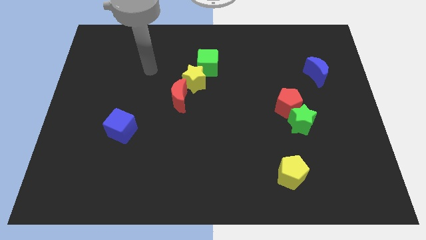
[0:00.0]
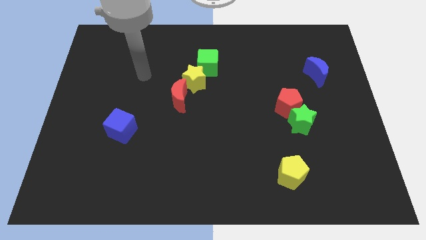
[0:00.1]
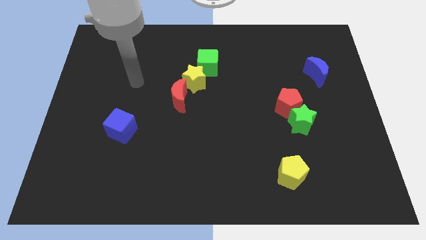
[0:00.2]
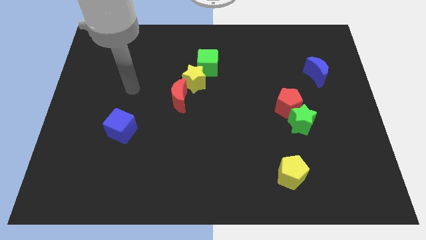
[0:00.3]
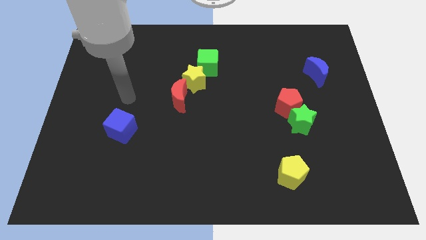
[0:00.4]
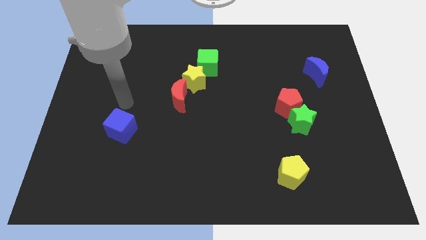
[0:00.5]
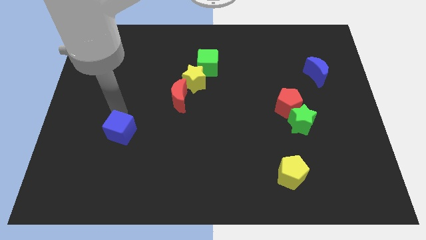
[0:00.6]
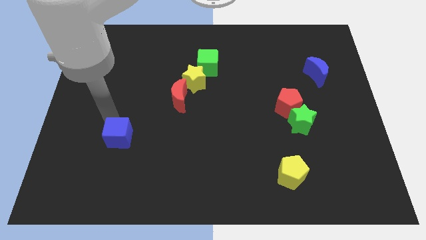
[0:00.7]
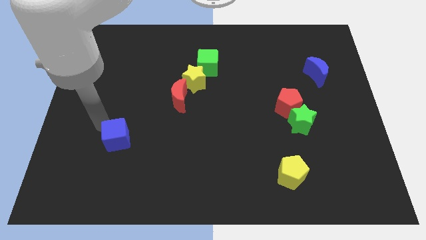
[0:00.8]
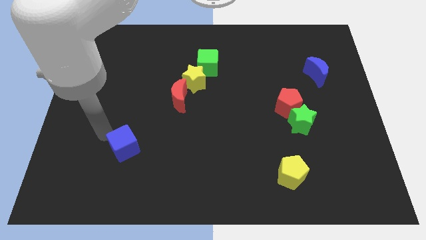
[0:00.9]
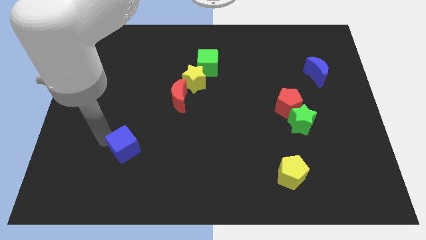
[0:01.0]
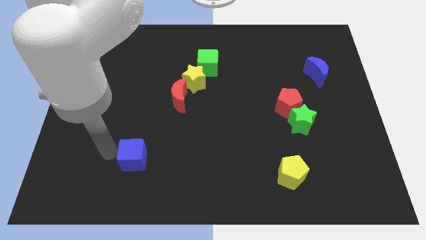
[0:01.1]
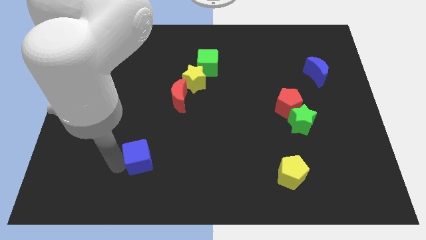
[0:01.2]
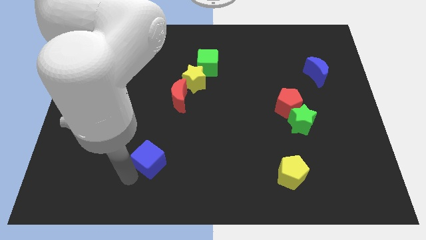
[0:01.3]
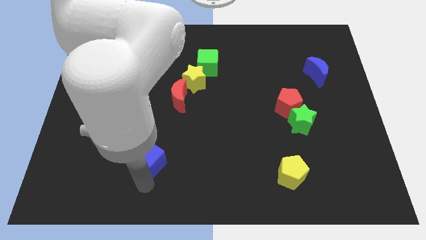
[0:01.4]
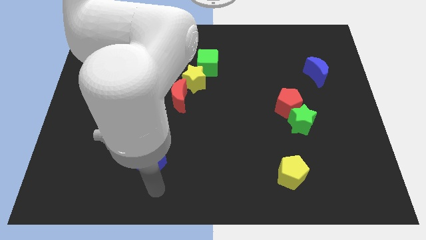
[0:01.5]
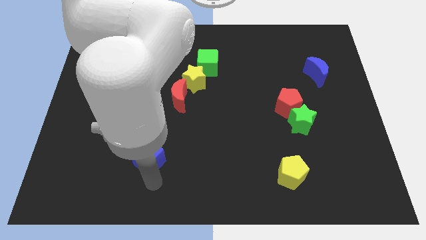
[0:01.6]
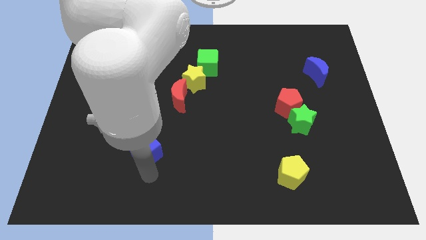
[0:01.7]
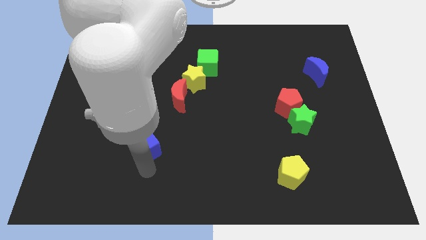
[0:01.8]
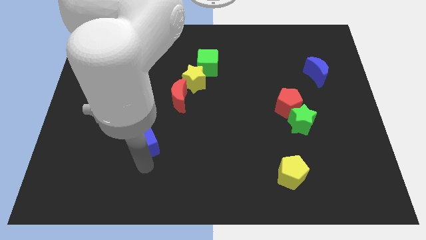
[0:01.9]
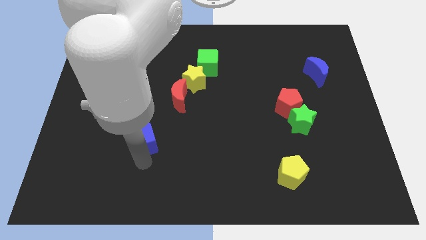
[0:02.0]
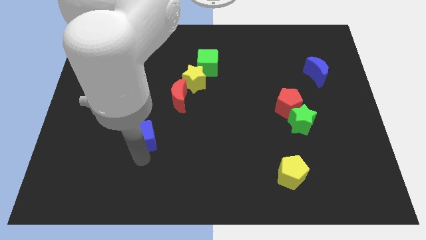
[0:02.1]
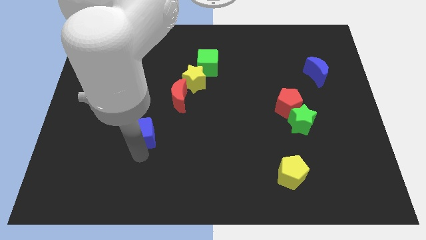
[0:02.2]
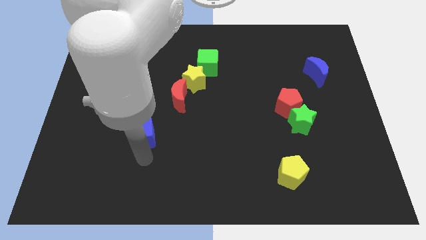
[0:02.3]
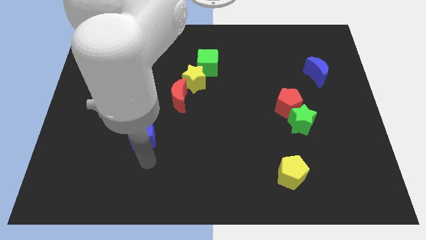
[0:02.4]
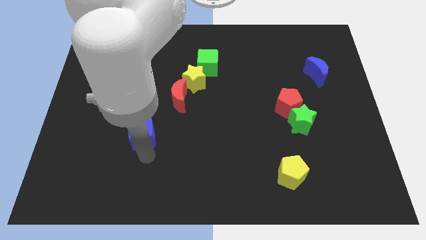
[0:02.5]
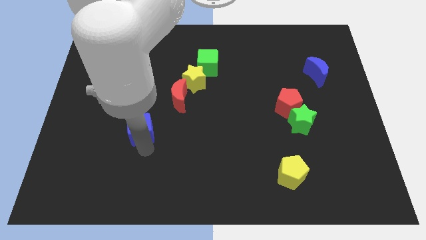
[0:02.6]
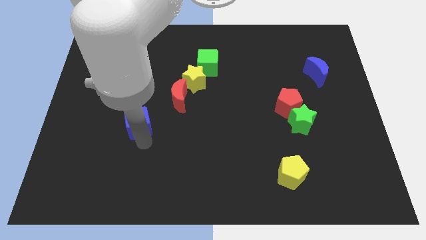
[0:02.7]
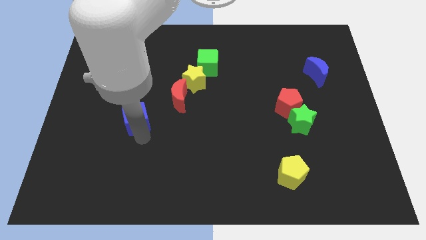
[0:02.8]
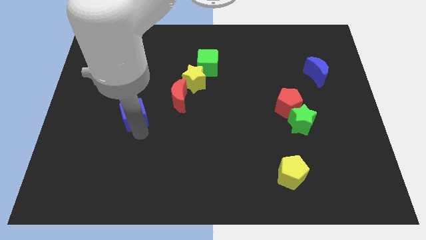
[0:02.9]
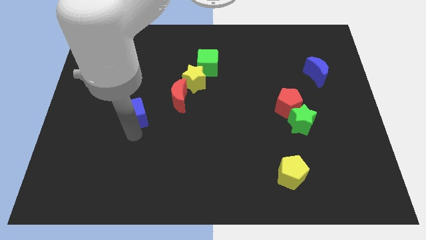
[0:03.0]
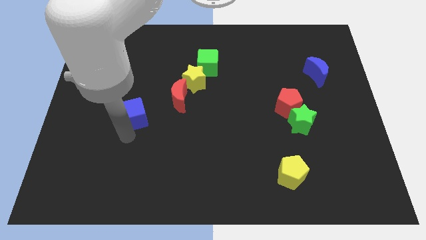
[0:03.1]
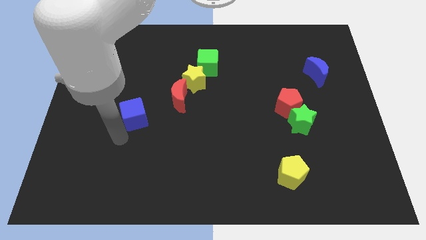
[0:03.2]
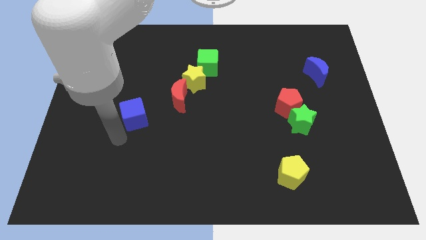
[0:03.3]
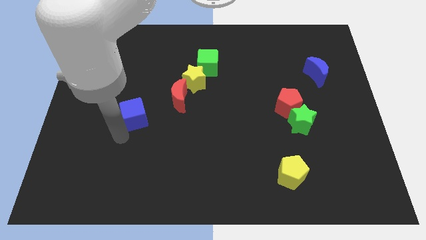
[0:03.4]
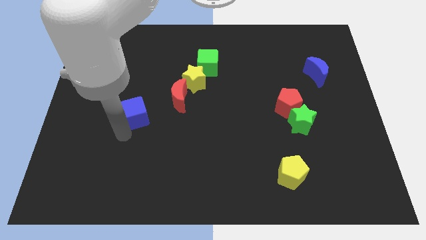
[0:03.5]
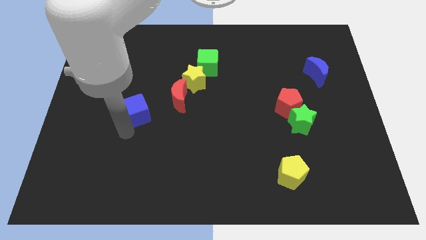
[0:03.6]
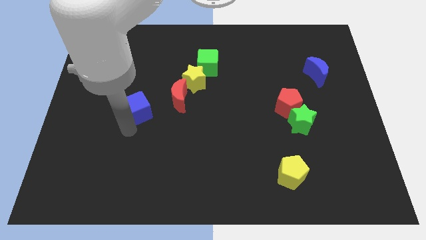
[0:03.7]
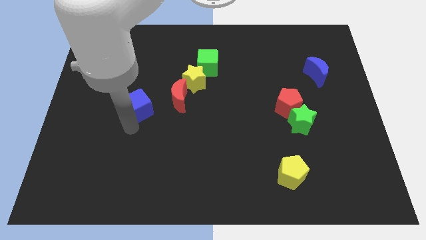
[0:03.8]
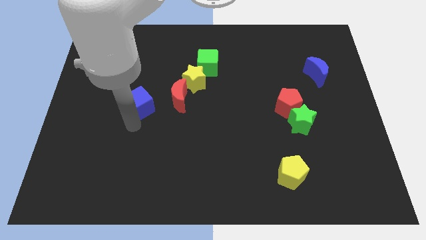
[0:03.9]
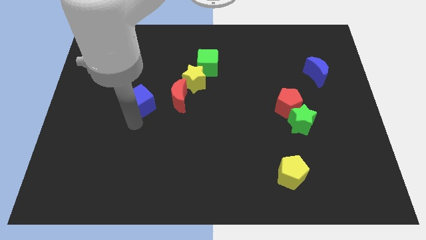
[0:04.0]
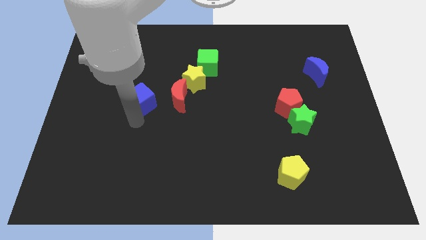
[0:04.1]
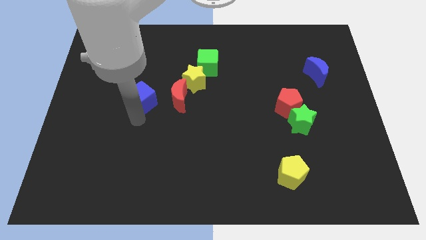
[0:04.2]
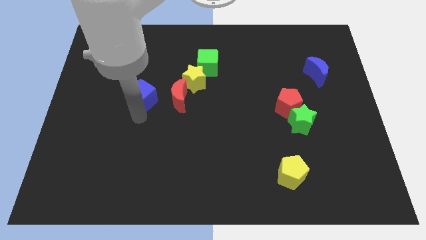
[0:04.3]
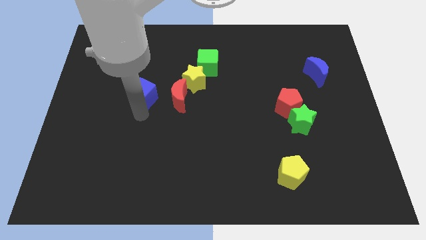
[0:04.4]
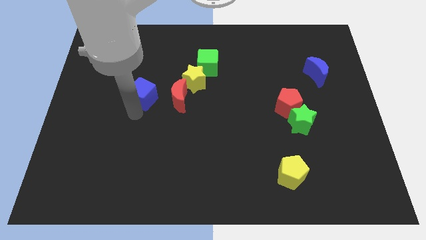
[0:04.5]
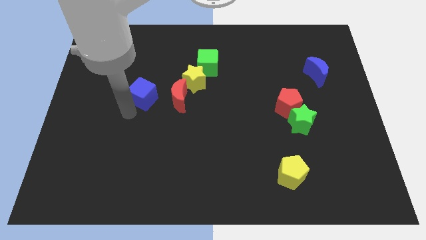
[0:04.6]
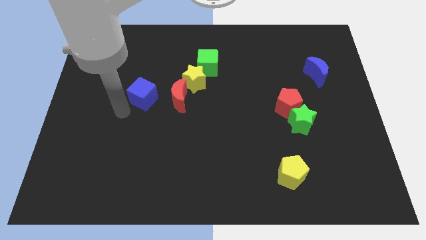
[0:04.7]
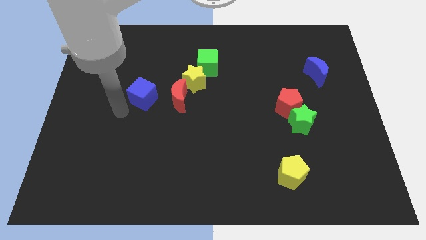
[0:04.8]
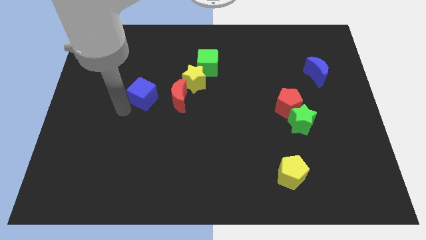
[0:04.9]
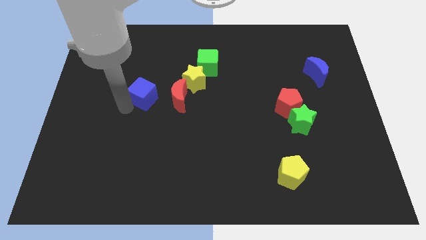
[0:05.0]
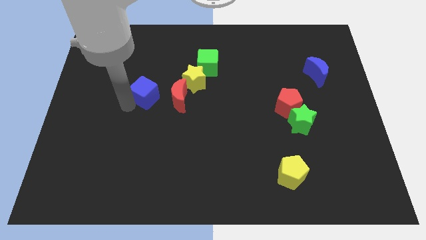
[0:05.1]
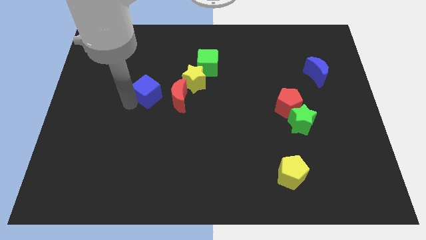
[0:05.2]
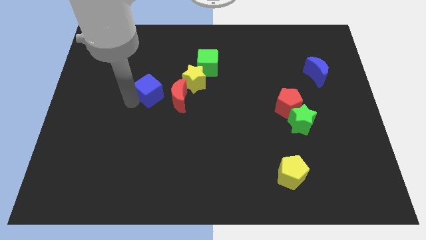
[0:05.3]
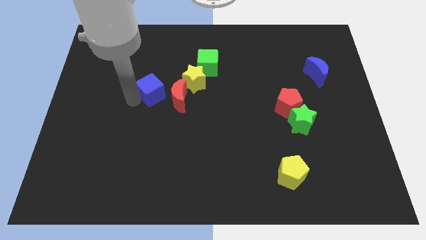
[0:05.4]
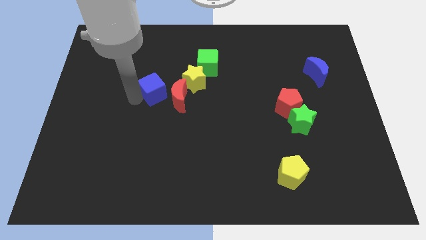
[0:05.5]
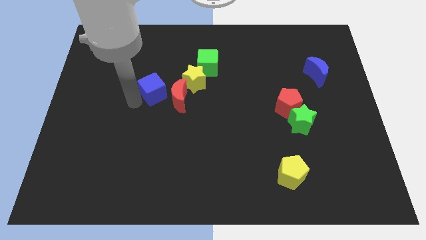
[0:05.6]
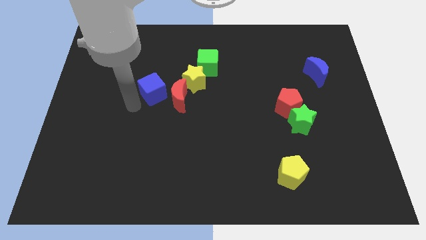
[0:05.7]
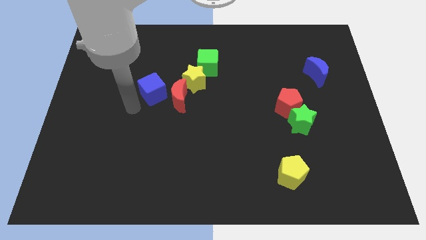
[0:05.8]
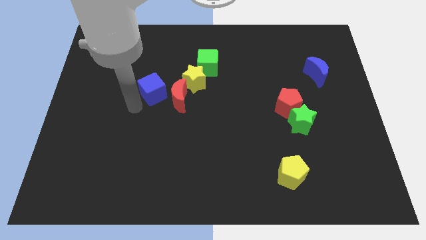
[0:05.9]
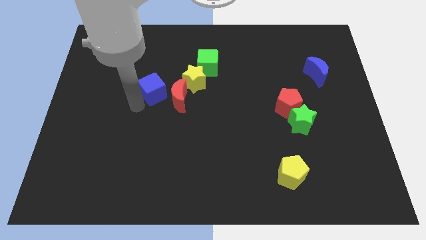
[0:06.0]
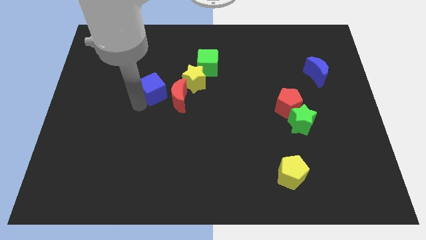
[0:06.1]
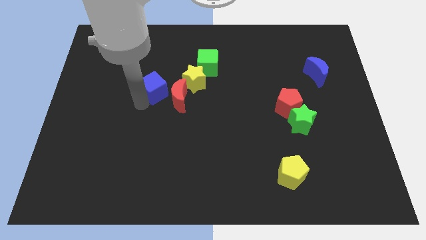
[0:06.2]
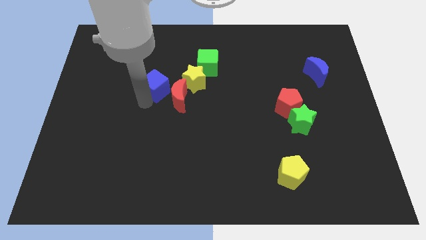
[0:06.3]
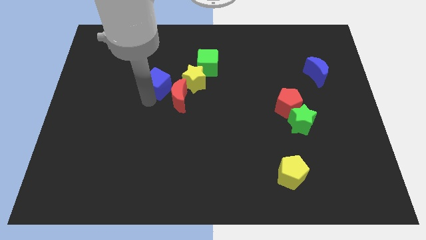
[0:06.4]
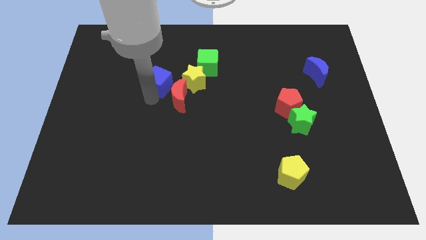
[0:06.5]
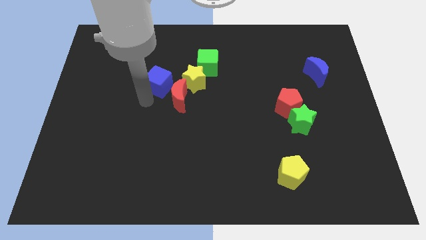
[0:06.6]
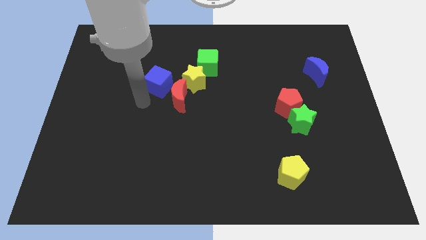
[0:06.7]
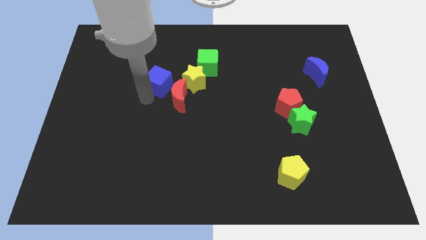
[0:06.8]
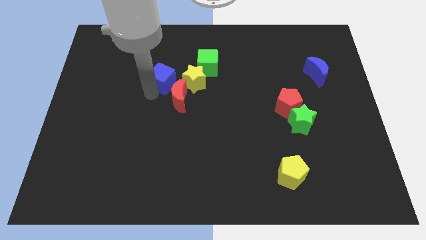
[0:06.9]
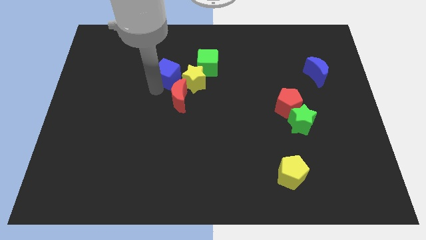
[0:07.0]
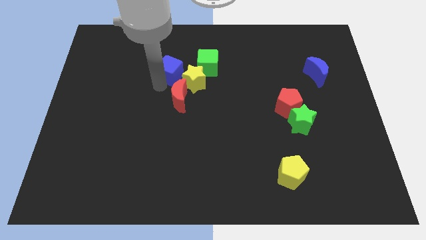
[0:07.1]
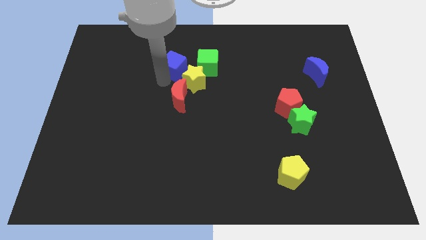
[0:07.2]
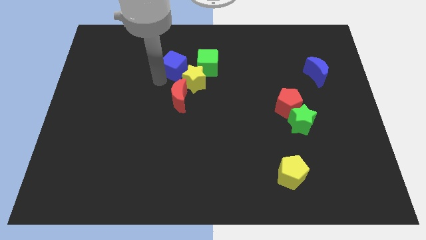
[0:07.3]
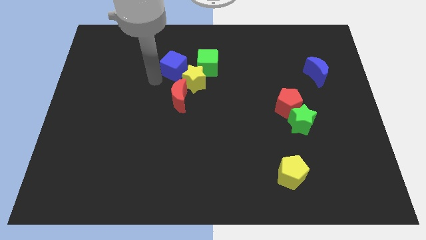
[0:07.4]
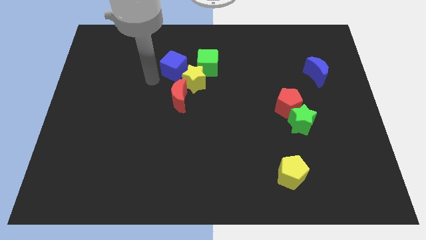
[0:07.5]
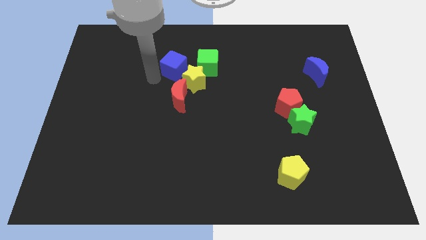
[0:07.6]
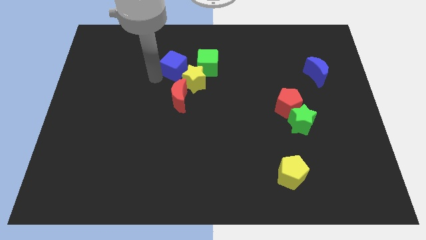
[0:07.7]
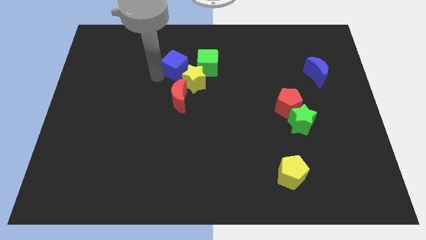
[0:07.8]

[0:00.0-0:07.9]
move the blue cube up and to the right diagonally
